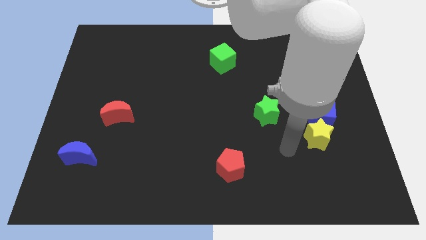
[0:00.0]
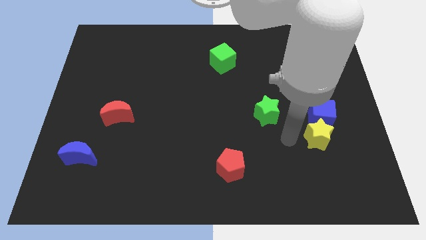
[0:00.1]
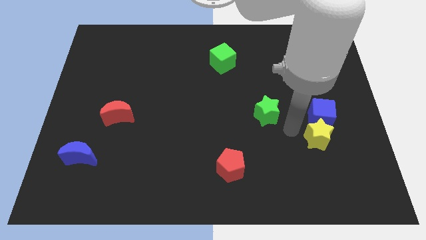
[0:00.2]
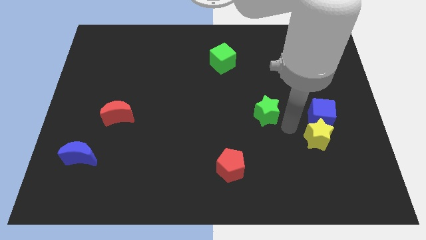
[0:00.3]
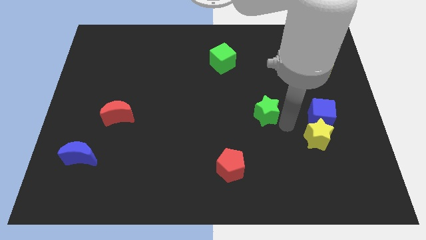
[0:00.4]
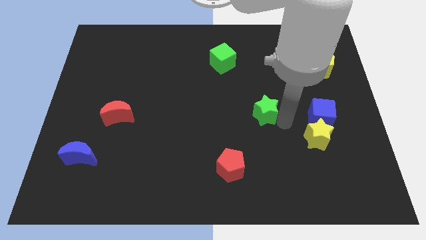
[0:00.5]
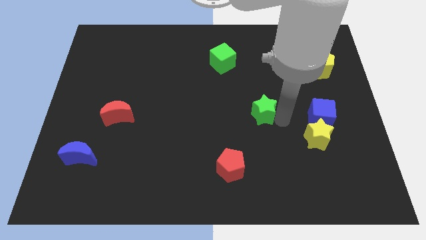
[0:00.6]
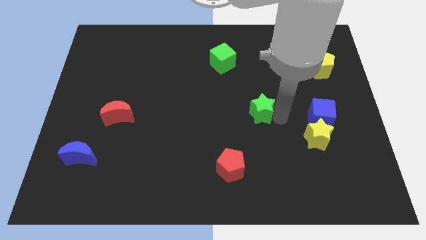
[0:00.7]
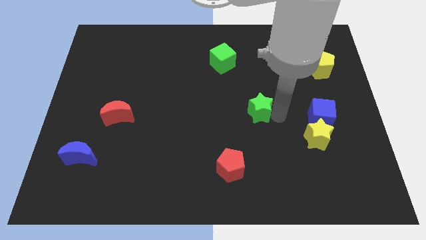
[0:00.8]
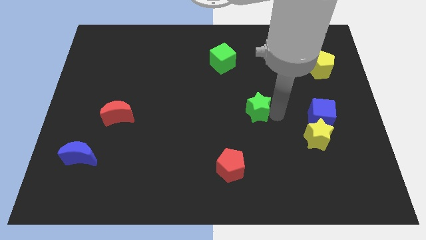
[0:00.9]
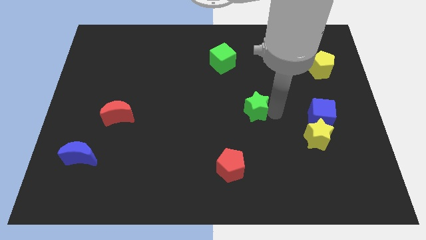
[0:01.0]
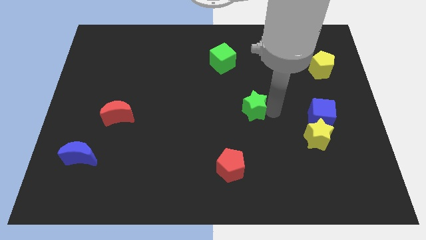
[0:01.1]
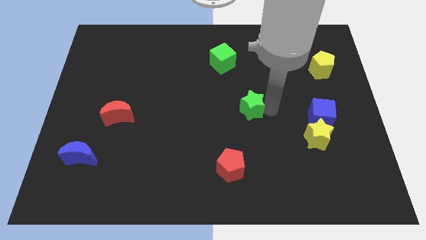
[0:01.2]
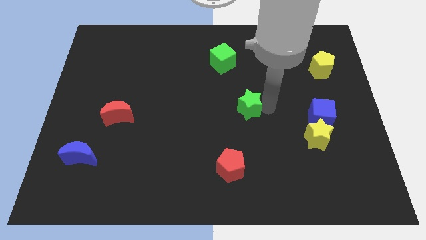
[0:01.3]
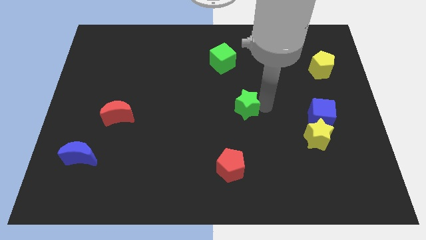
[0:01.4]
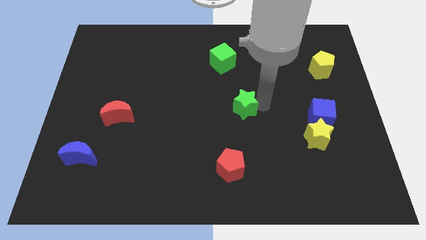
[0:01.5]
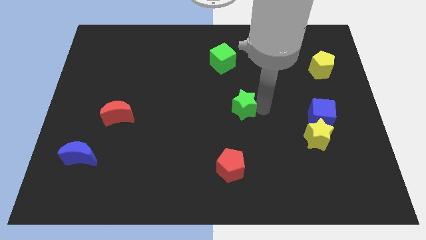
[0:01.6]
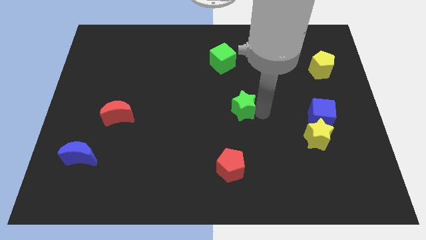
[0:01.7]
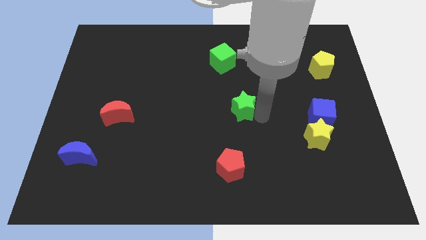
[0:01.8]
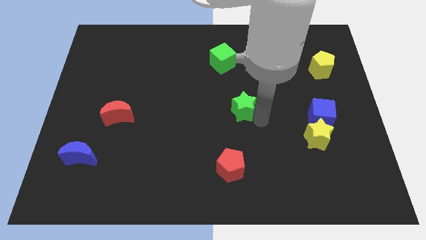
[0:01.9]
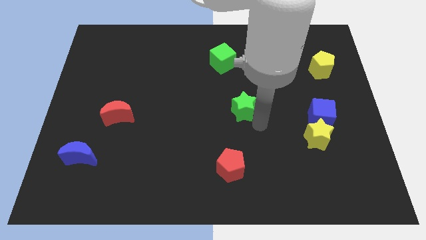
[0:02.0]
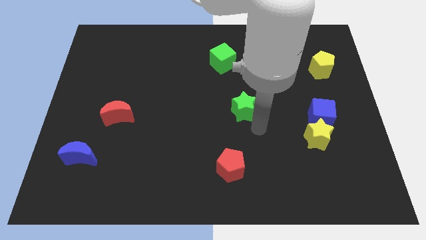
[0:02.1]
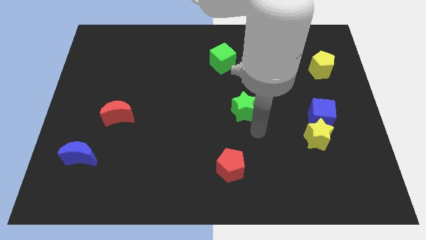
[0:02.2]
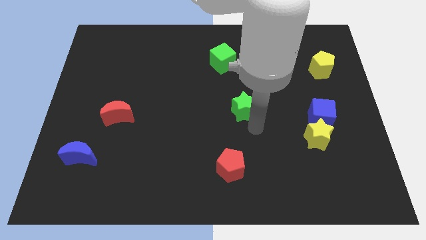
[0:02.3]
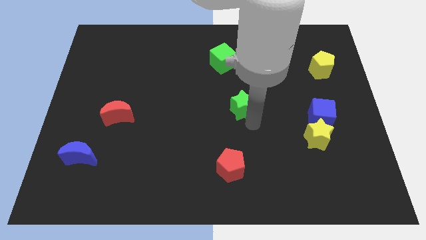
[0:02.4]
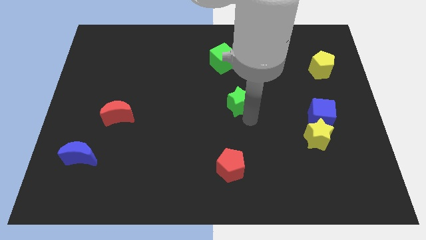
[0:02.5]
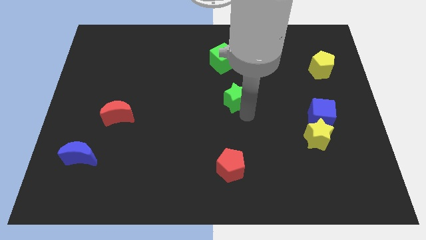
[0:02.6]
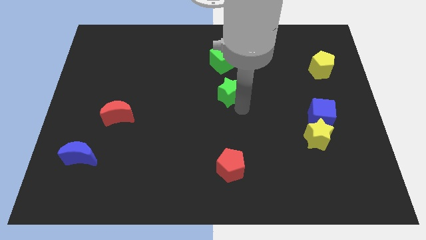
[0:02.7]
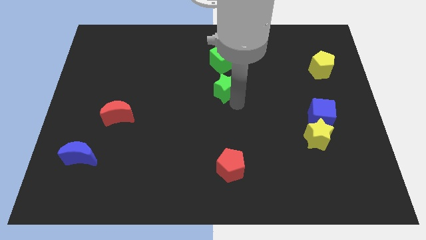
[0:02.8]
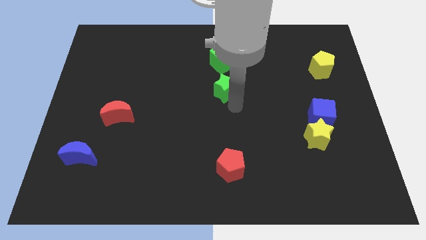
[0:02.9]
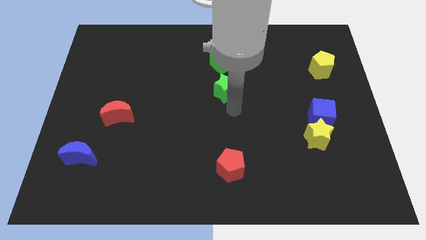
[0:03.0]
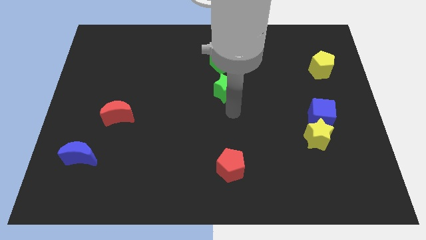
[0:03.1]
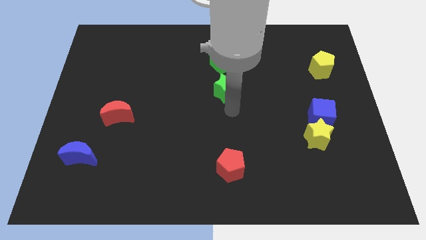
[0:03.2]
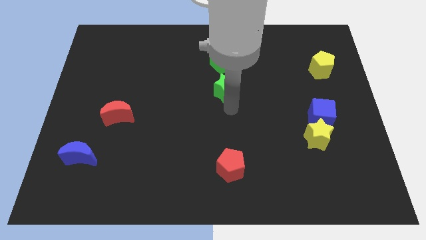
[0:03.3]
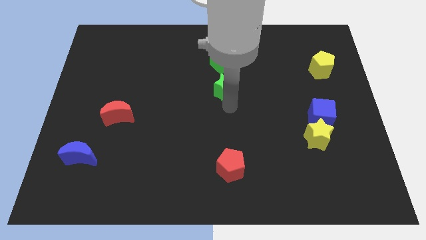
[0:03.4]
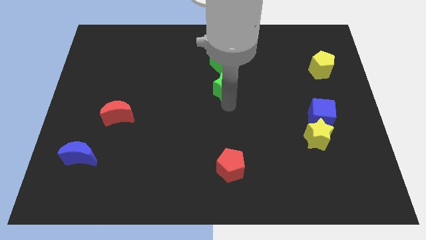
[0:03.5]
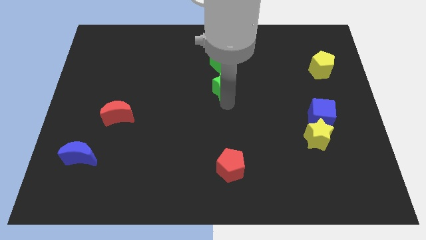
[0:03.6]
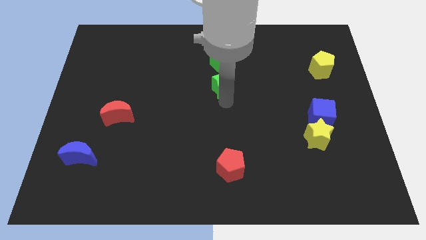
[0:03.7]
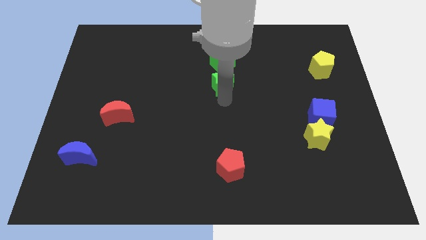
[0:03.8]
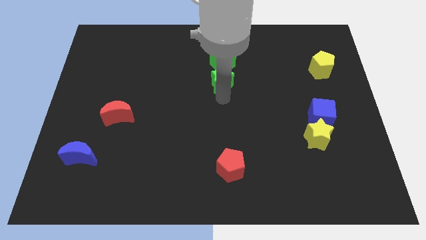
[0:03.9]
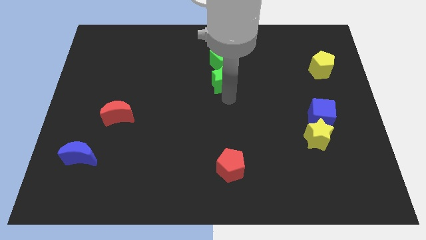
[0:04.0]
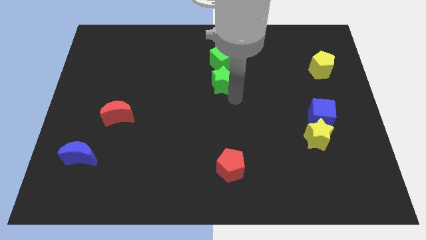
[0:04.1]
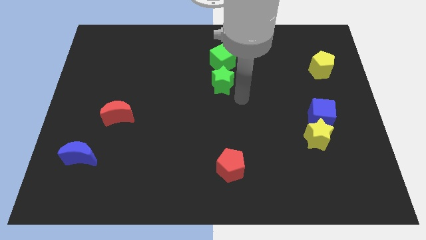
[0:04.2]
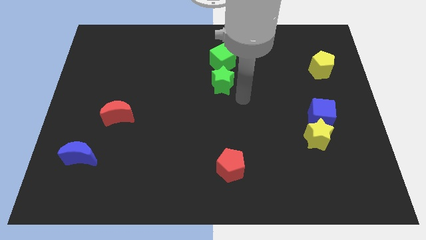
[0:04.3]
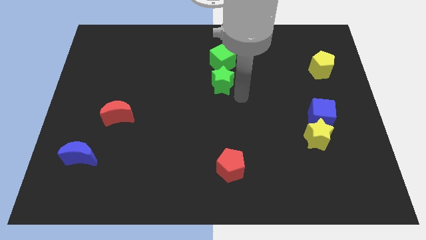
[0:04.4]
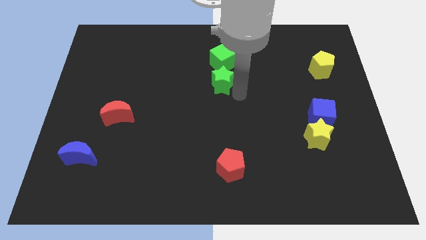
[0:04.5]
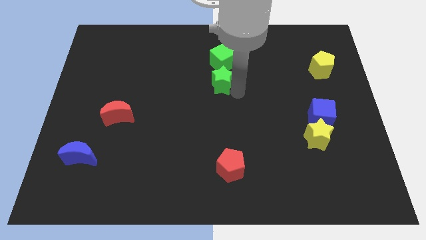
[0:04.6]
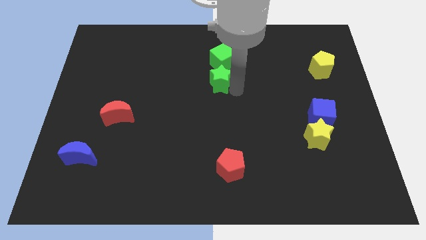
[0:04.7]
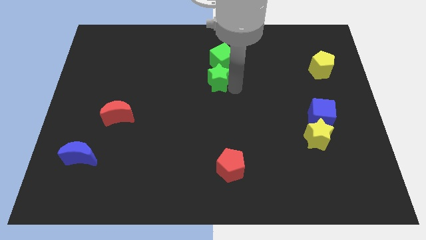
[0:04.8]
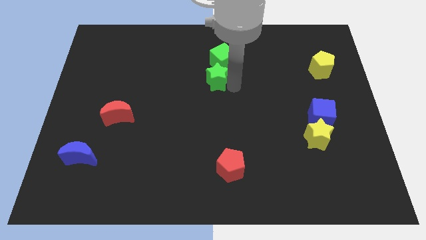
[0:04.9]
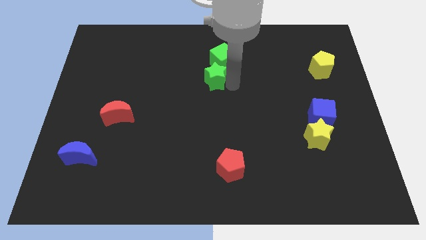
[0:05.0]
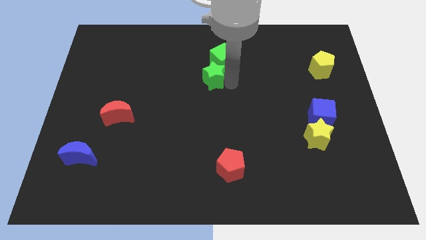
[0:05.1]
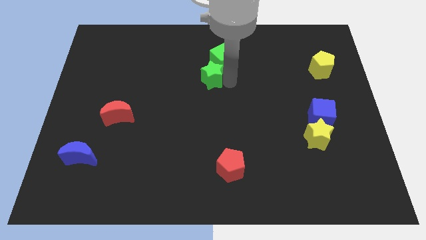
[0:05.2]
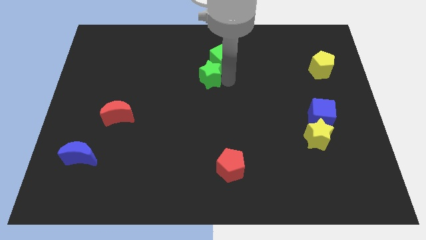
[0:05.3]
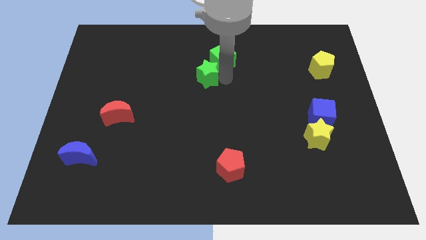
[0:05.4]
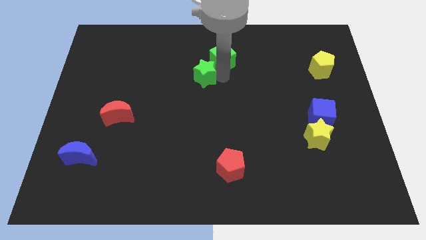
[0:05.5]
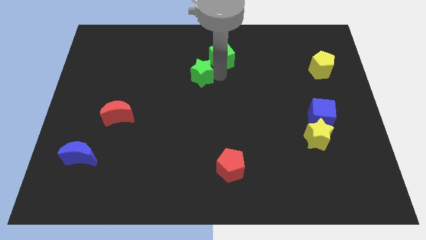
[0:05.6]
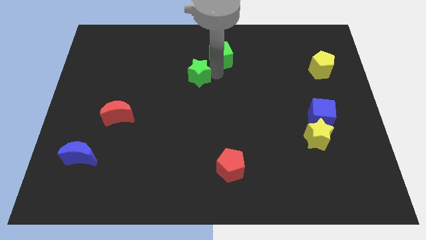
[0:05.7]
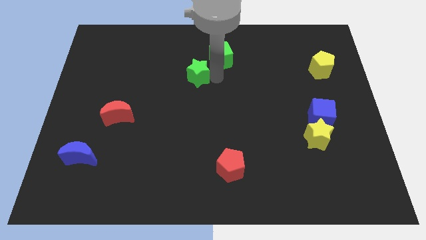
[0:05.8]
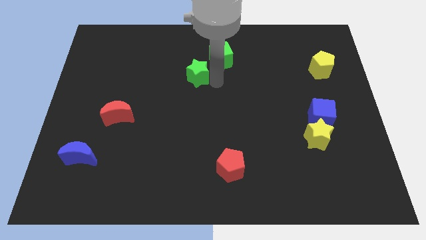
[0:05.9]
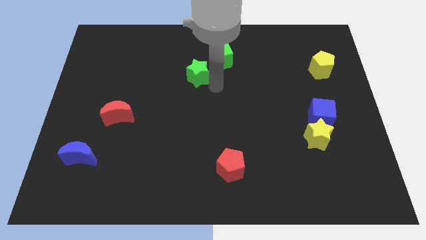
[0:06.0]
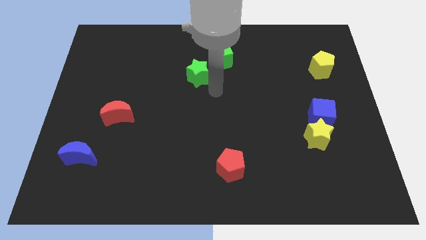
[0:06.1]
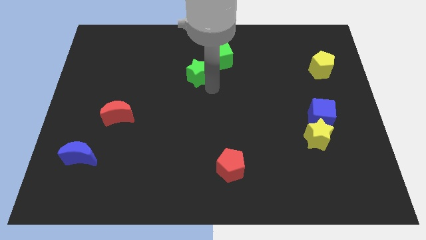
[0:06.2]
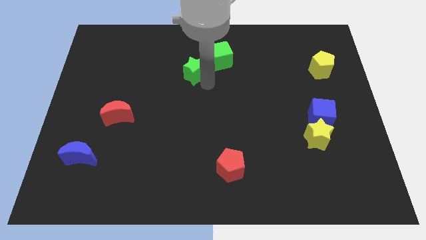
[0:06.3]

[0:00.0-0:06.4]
slide the green star to the left side of the green cube

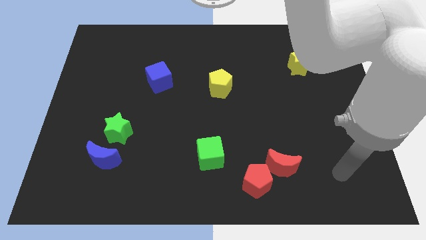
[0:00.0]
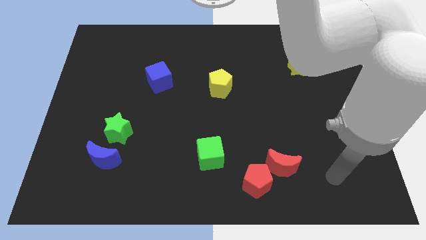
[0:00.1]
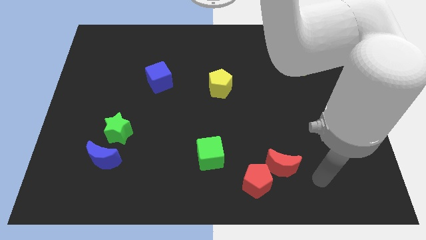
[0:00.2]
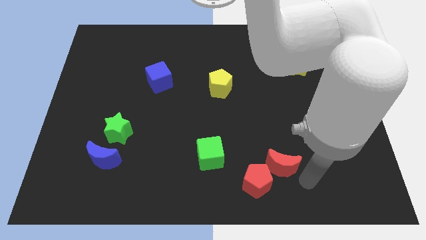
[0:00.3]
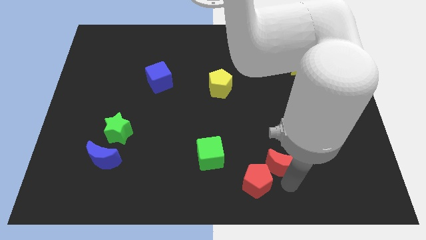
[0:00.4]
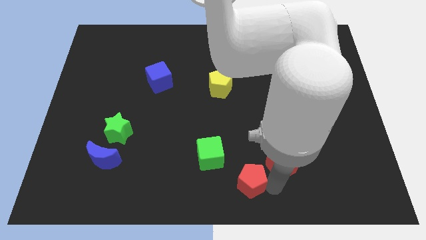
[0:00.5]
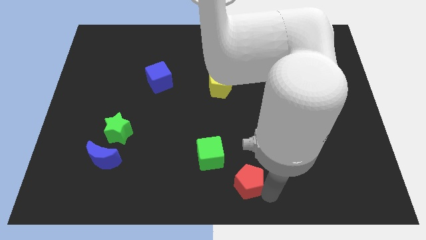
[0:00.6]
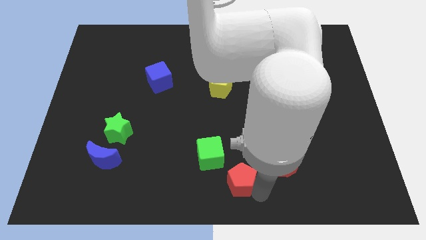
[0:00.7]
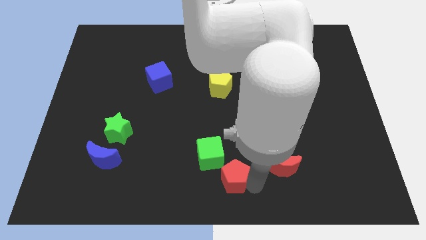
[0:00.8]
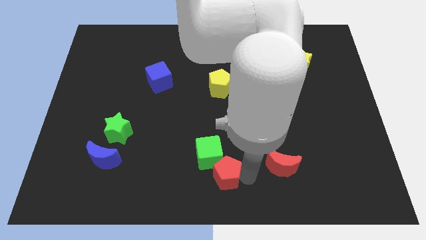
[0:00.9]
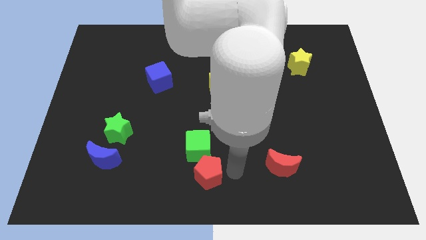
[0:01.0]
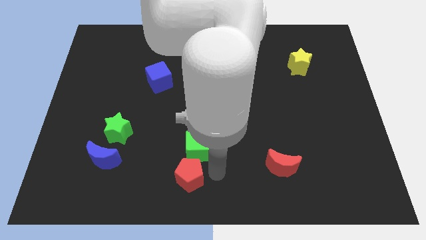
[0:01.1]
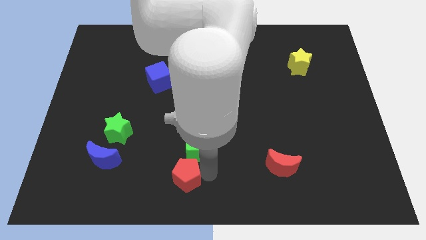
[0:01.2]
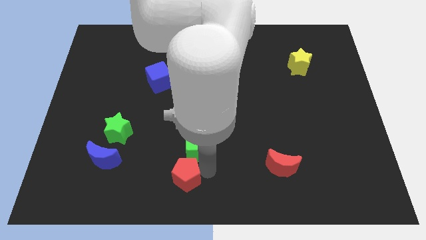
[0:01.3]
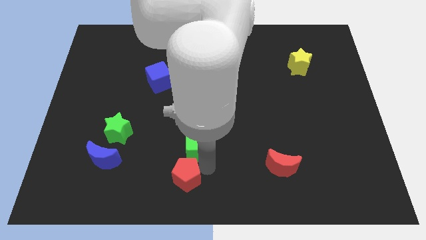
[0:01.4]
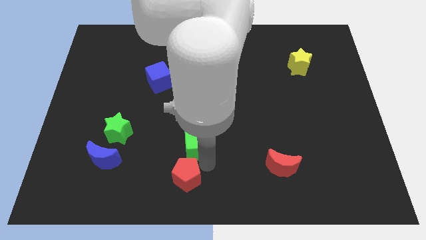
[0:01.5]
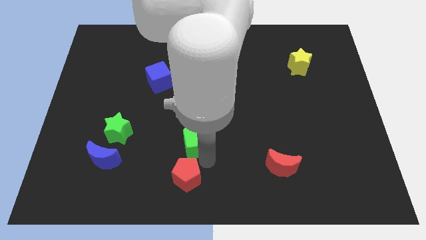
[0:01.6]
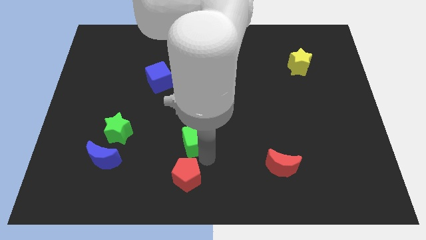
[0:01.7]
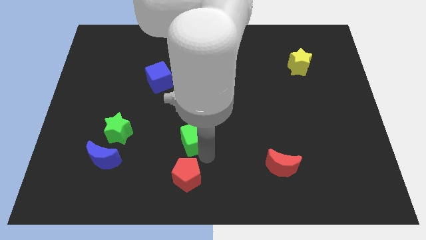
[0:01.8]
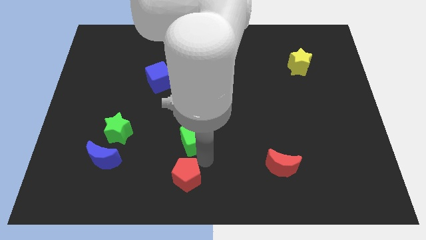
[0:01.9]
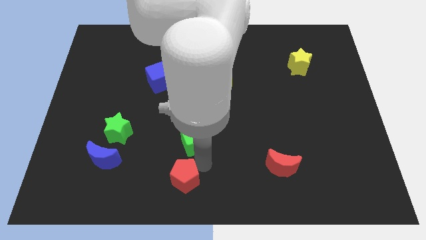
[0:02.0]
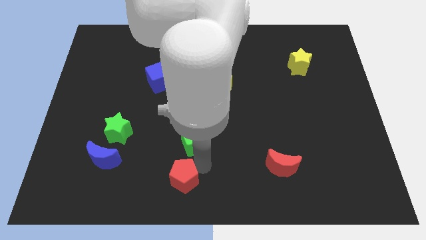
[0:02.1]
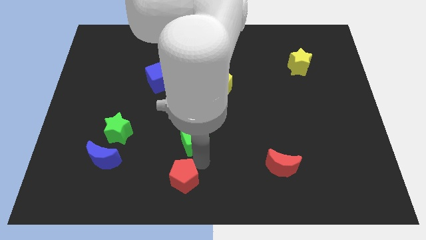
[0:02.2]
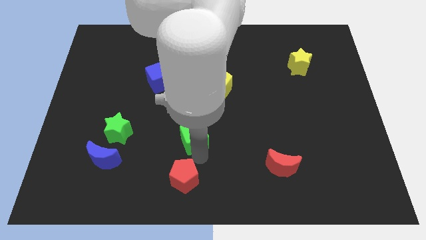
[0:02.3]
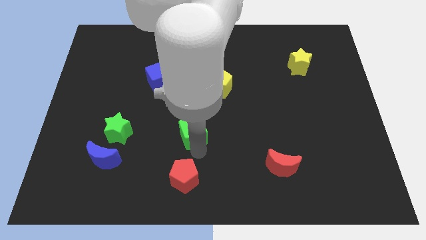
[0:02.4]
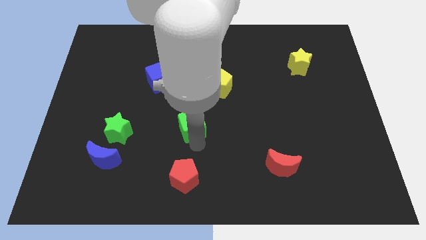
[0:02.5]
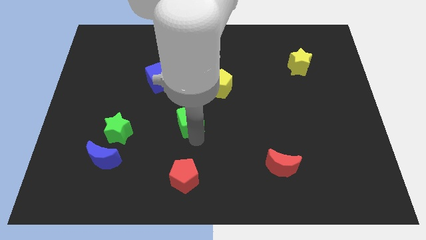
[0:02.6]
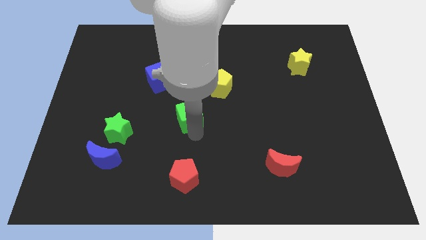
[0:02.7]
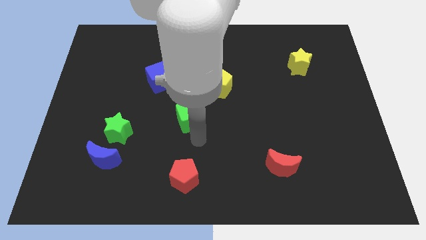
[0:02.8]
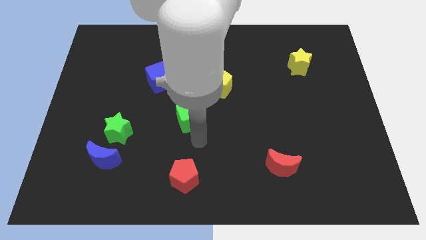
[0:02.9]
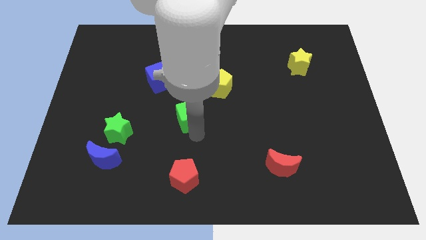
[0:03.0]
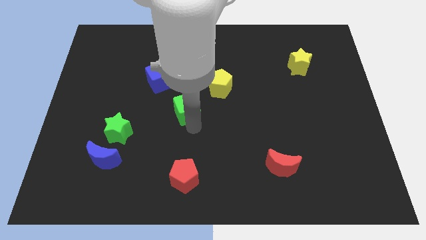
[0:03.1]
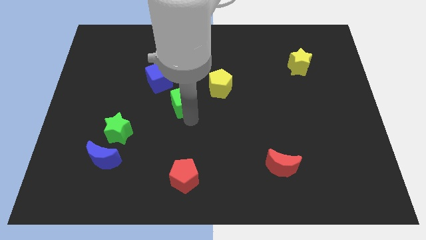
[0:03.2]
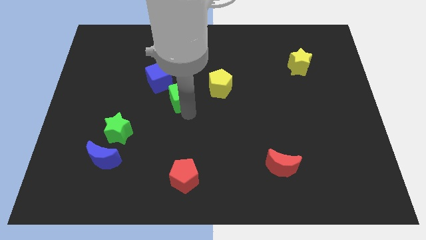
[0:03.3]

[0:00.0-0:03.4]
put the green cube to the left of the yellow pentagon
